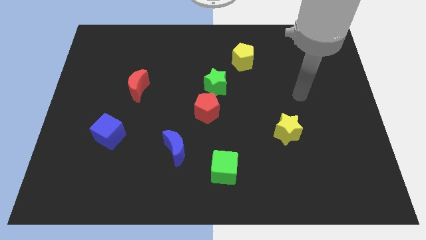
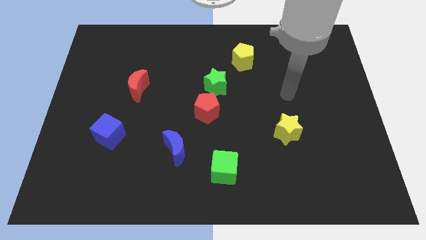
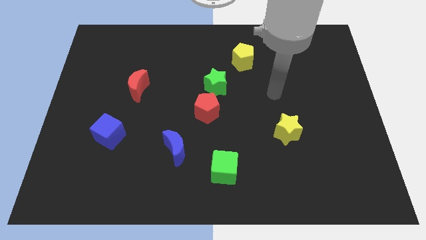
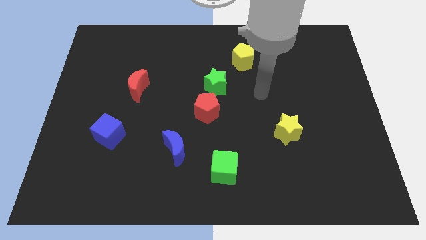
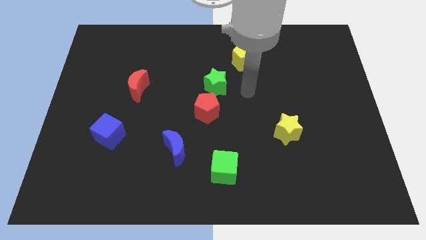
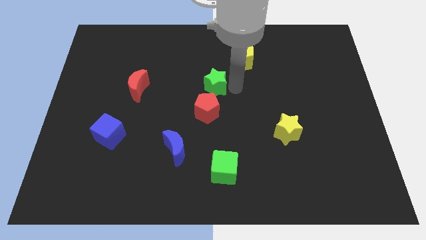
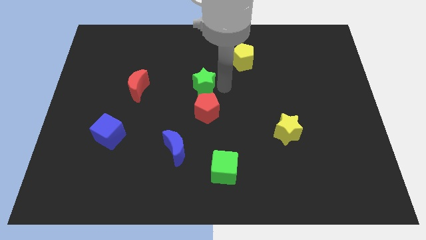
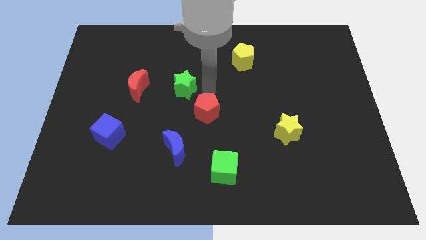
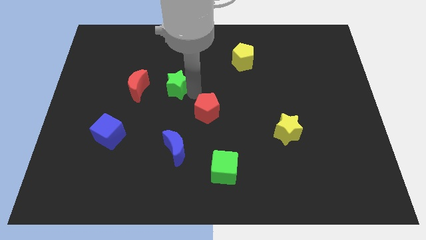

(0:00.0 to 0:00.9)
separate the red pentagon from the green star

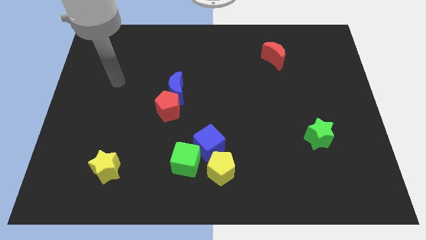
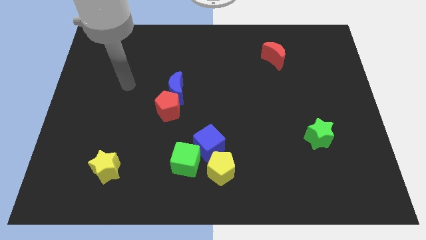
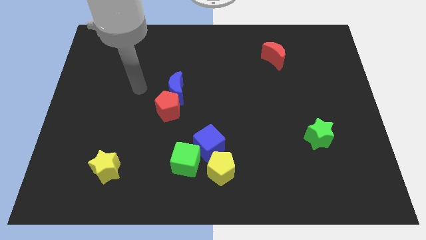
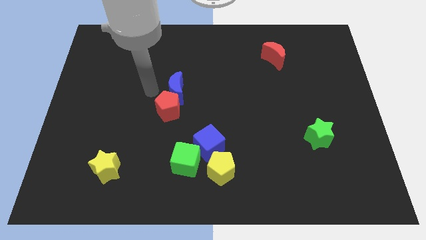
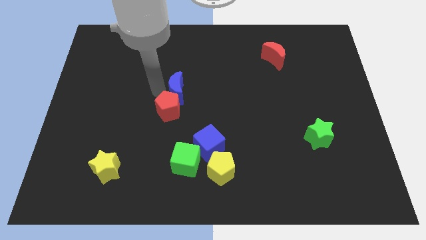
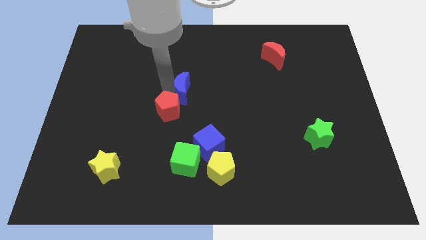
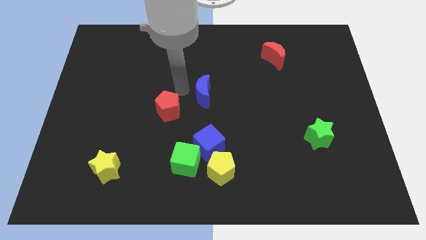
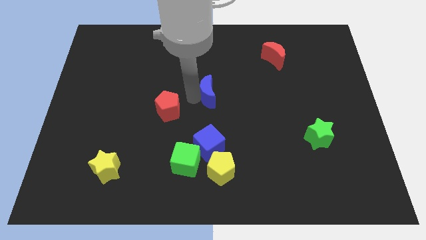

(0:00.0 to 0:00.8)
separate the red pentagon from the blue moon

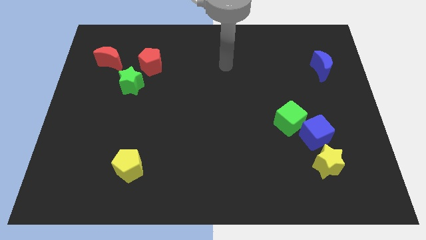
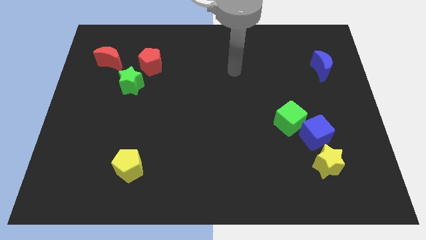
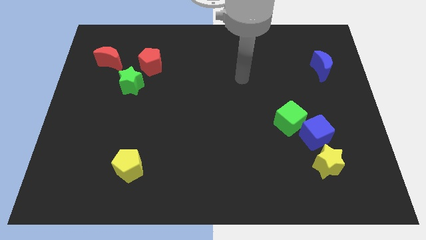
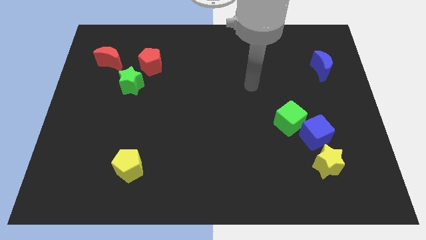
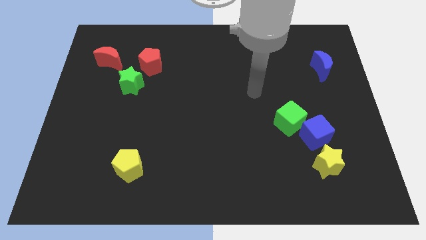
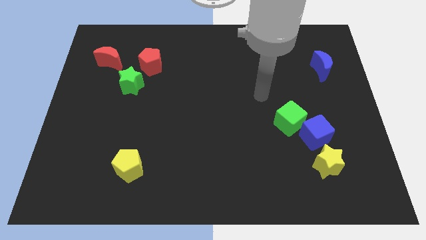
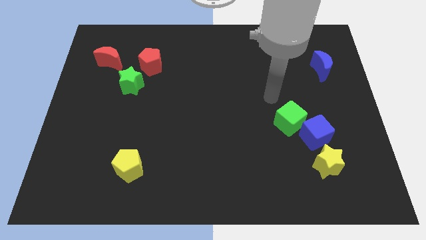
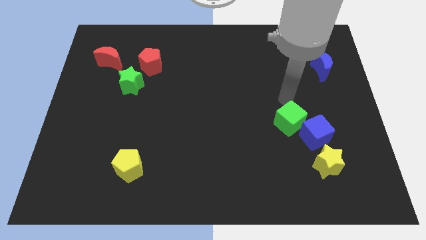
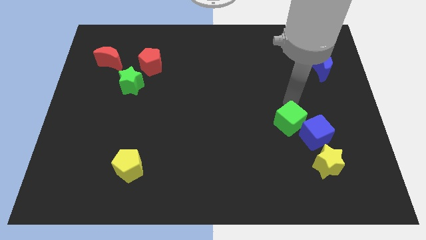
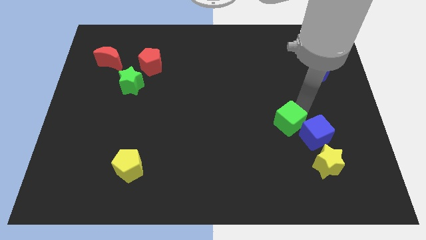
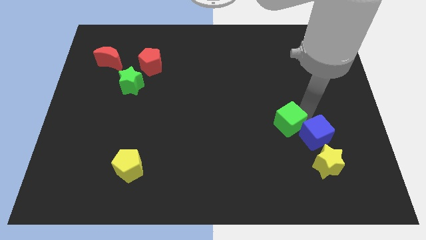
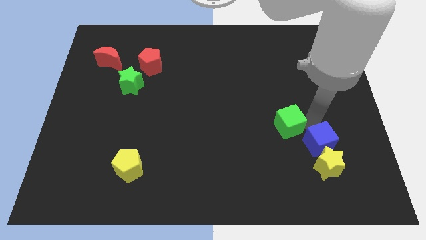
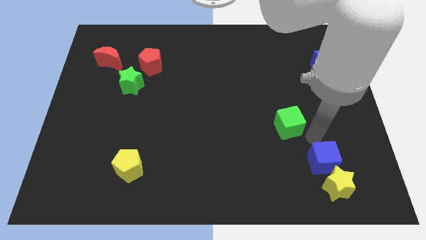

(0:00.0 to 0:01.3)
pull the green cube apart from the blue cube

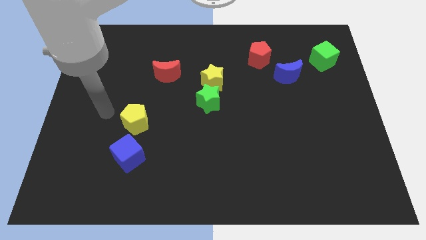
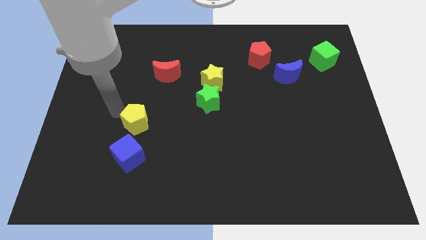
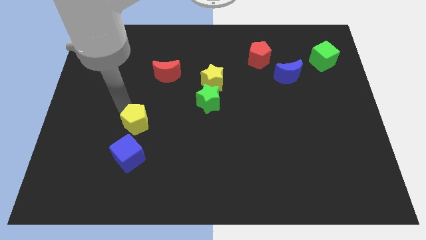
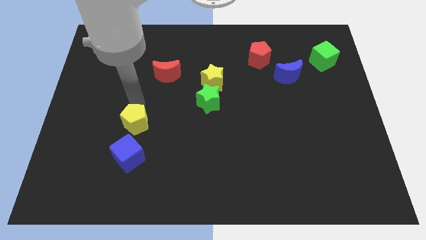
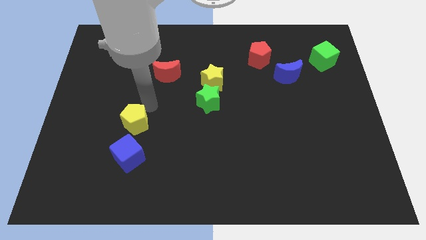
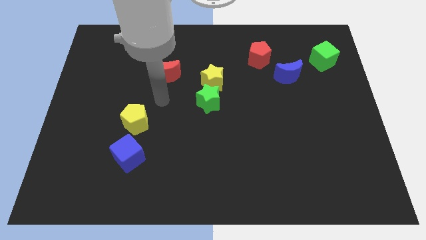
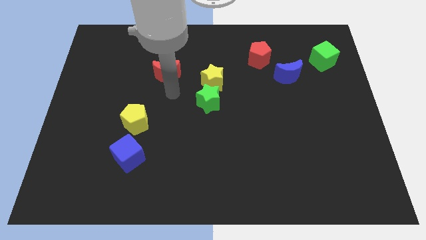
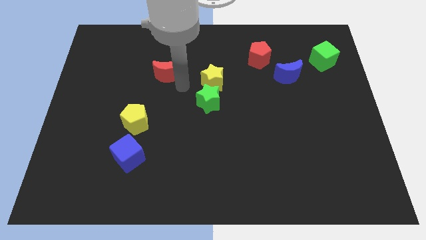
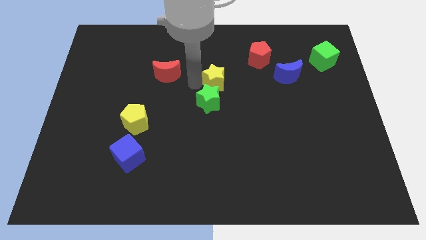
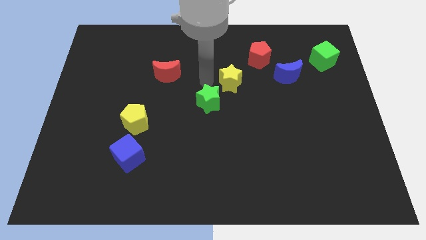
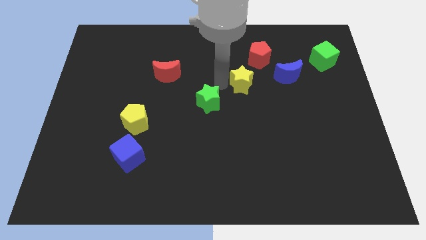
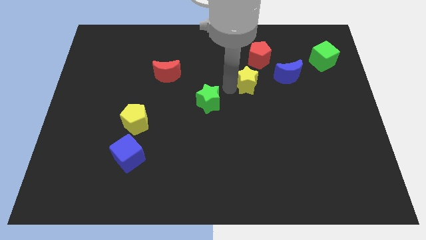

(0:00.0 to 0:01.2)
separate the green star from the yellow star

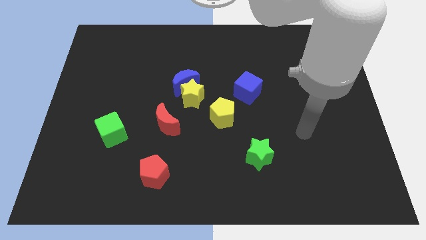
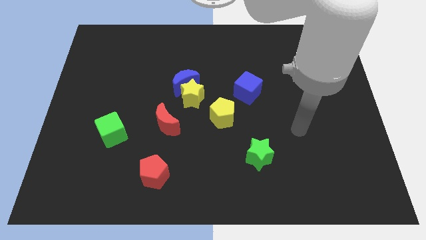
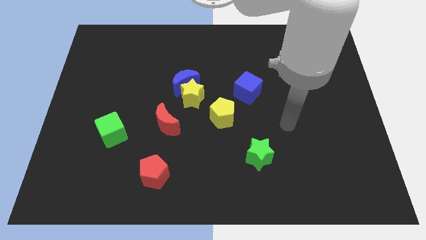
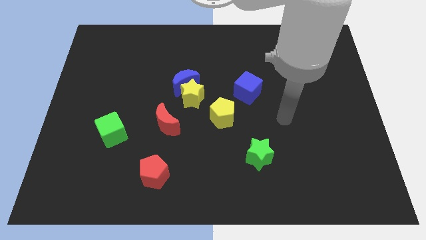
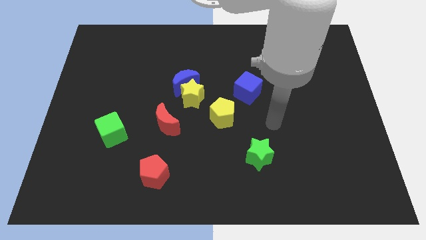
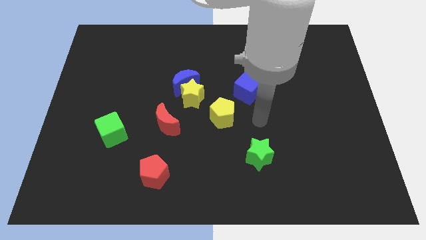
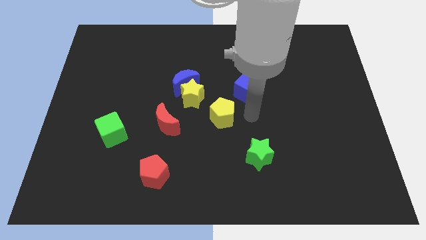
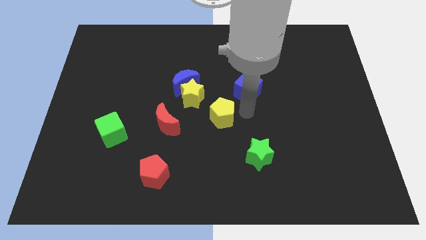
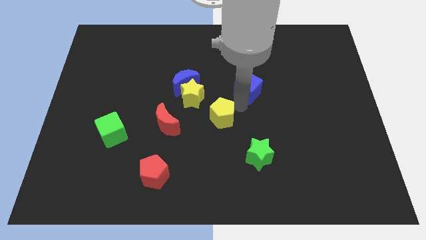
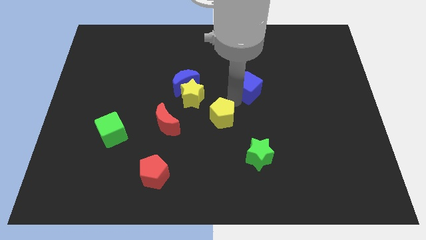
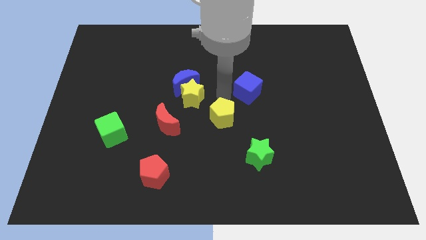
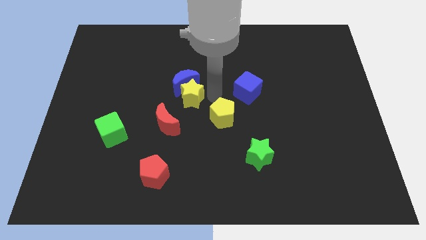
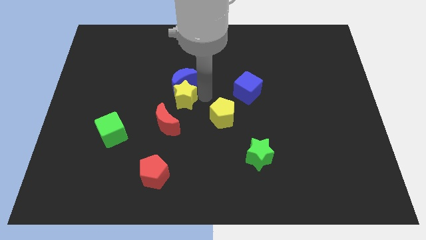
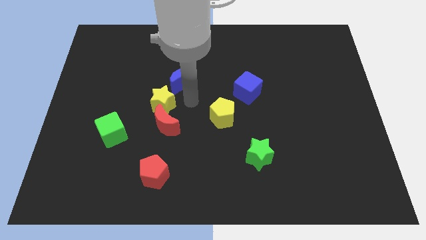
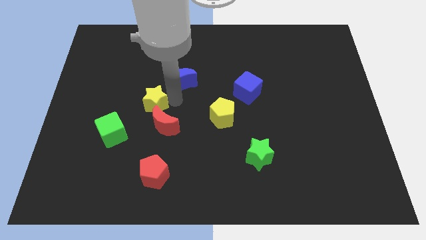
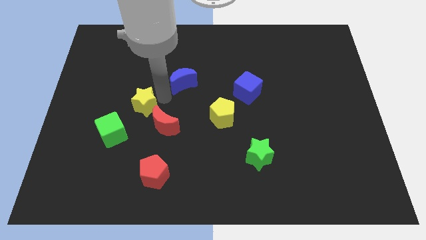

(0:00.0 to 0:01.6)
pull the blue moon apart from the yellow star

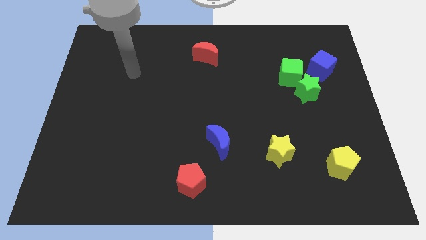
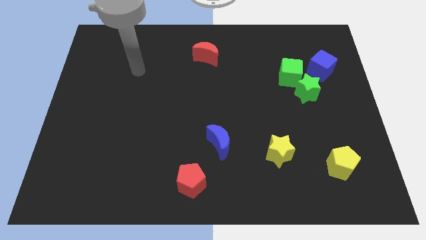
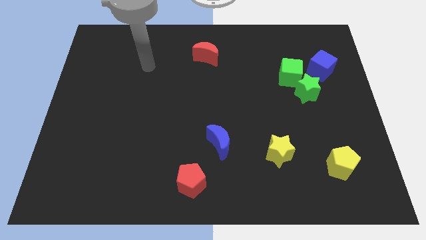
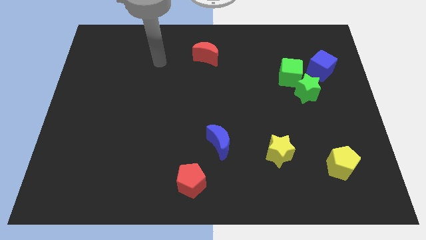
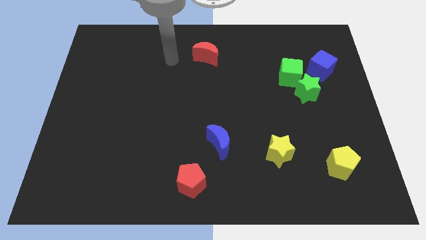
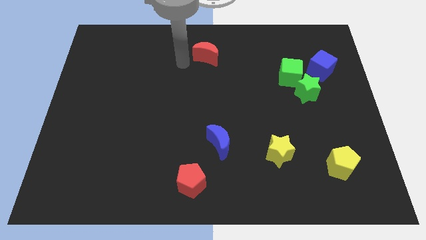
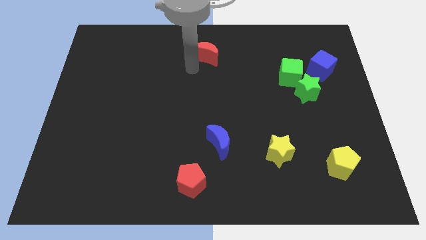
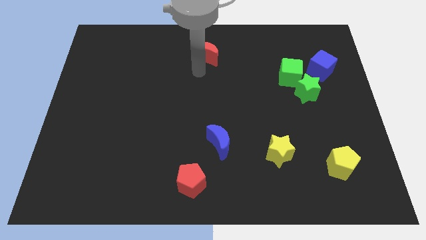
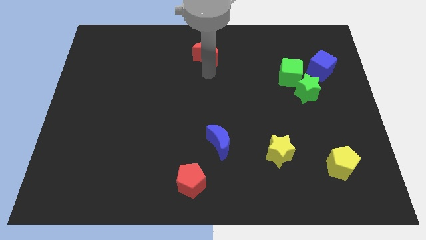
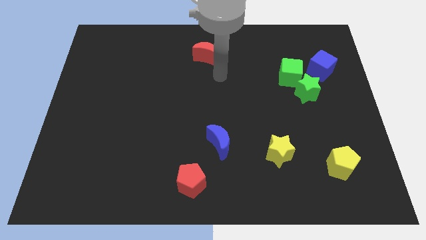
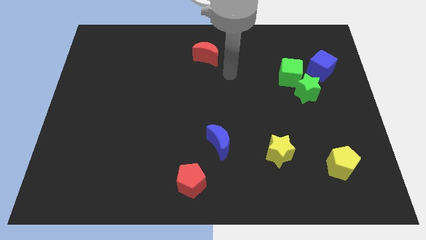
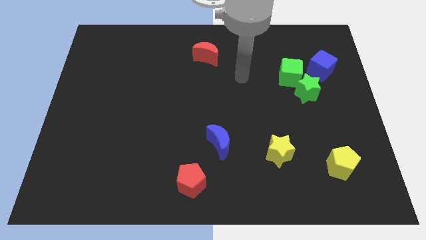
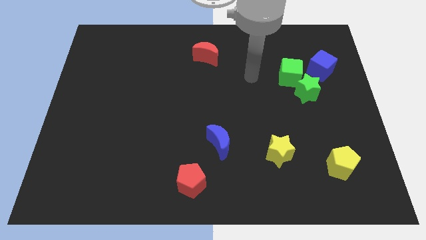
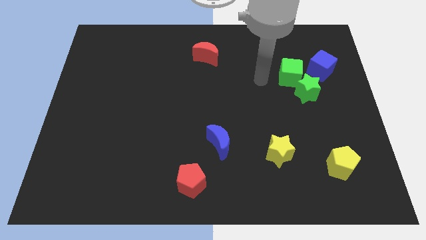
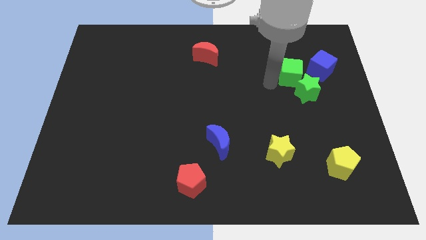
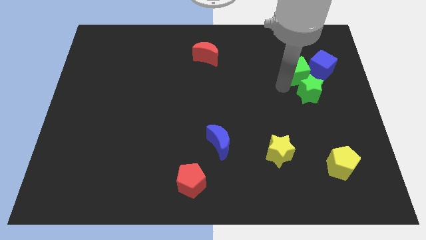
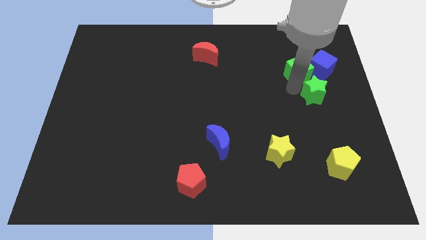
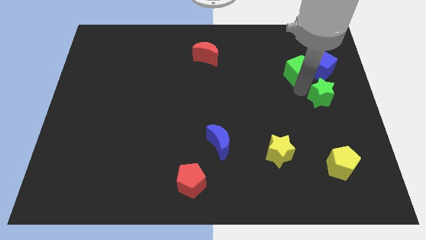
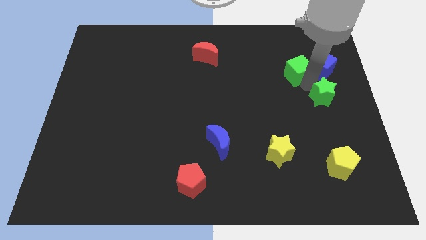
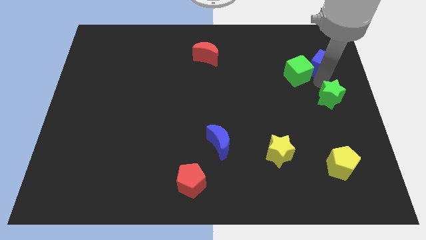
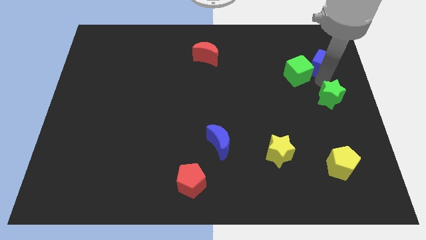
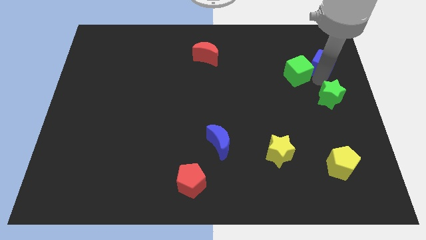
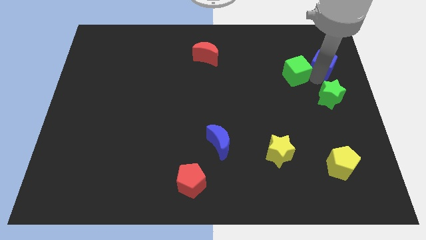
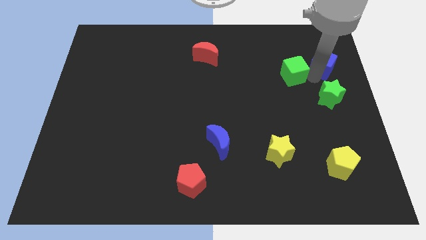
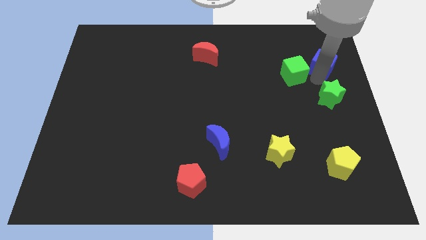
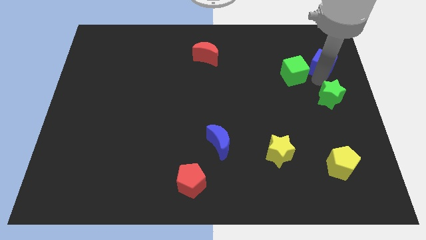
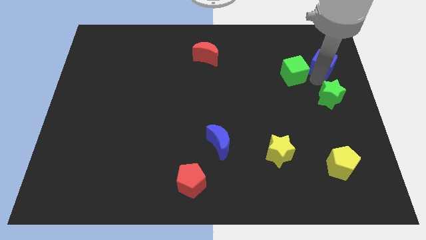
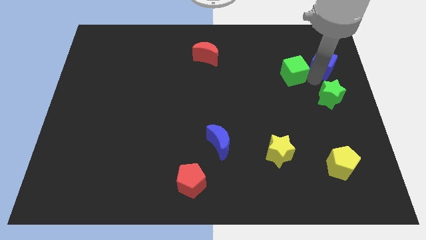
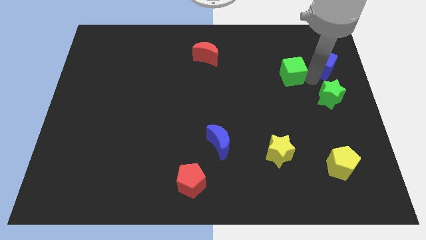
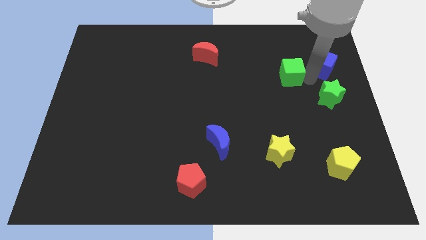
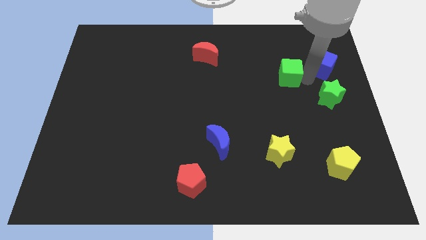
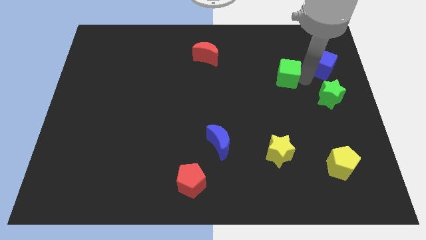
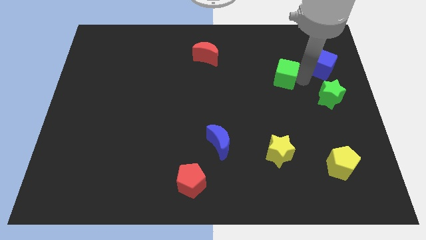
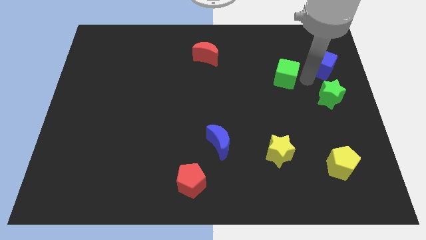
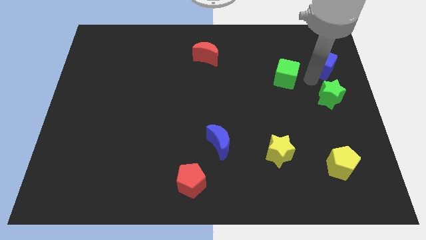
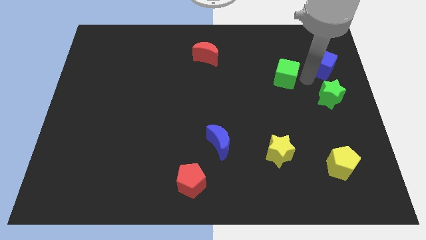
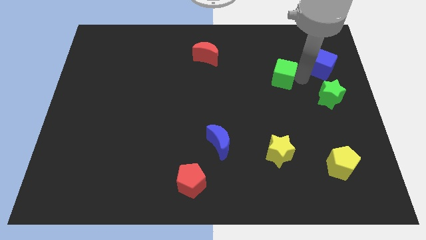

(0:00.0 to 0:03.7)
pull the green cube apart from the green star and blue cube
